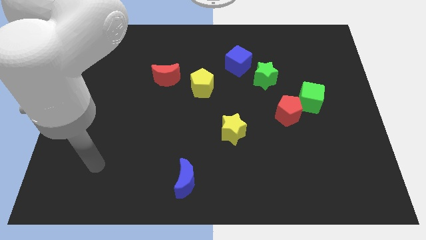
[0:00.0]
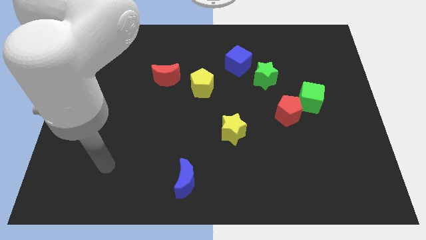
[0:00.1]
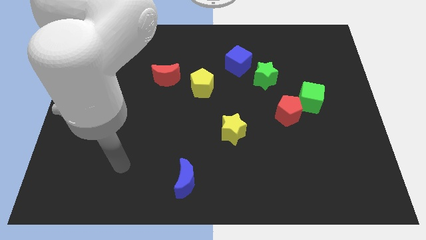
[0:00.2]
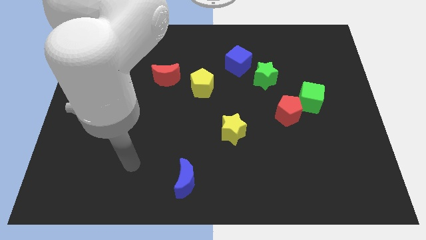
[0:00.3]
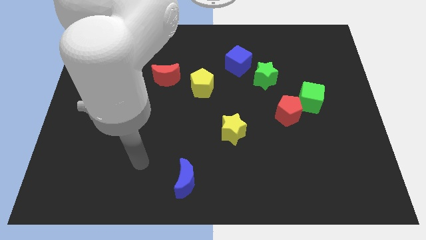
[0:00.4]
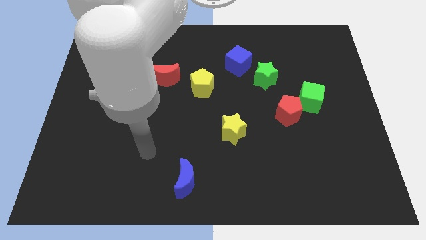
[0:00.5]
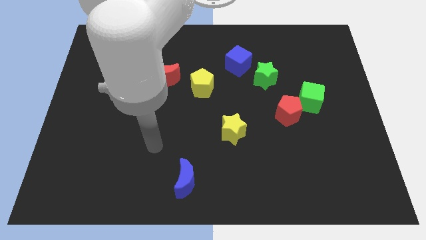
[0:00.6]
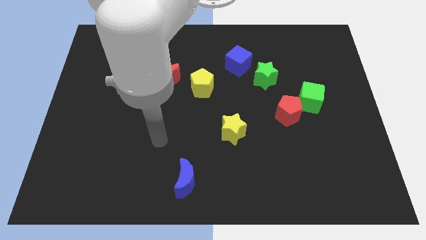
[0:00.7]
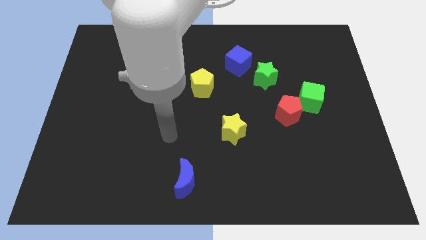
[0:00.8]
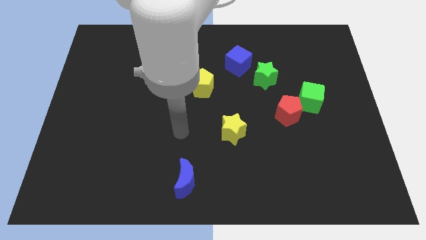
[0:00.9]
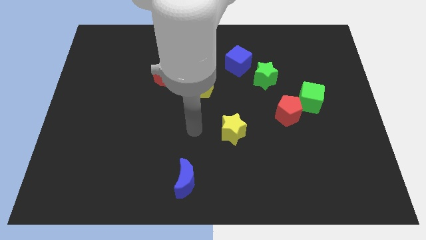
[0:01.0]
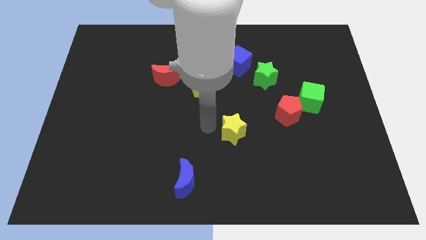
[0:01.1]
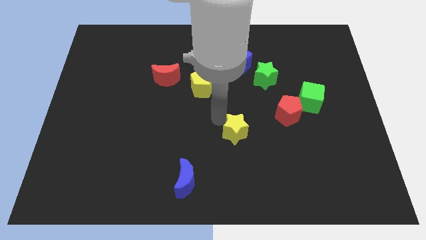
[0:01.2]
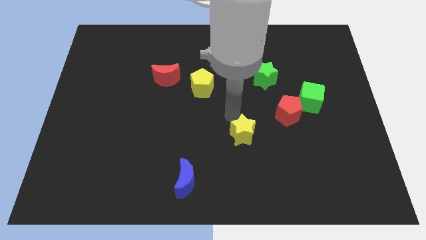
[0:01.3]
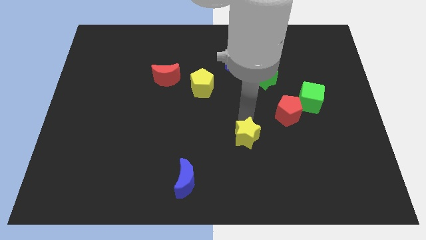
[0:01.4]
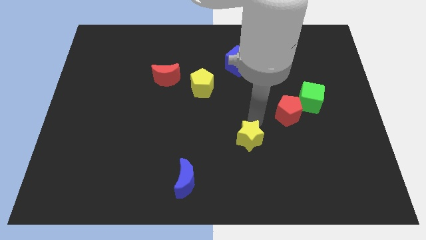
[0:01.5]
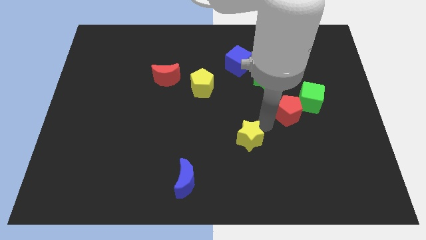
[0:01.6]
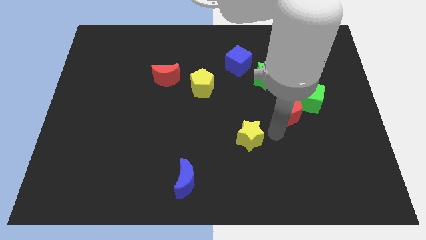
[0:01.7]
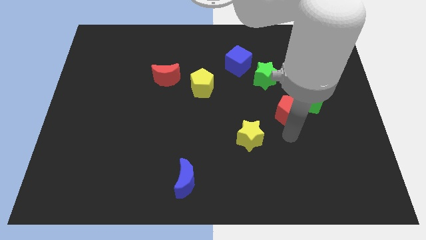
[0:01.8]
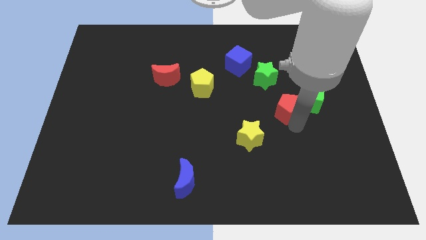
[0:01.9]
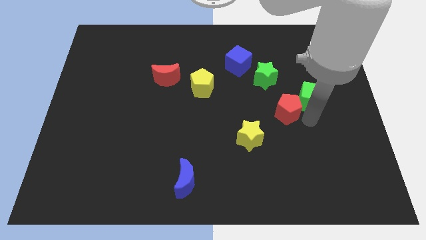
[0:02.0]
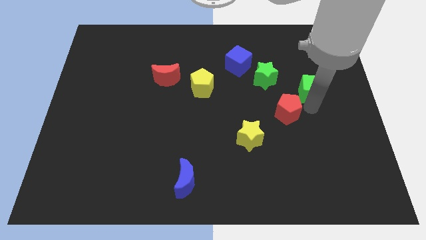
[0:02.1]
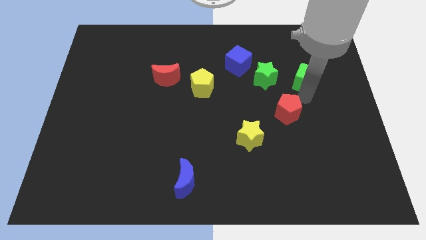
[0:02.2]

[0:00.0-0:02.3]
pull the red pentagon apart from the green cube

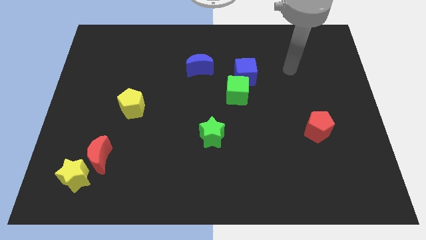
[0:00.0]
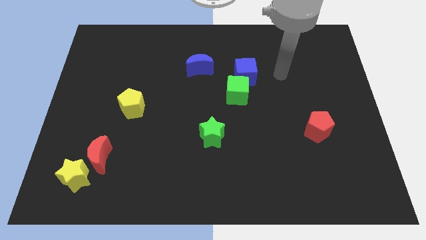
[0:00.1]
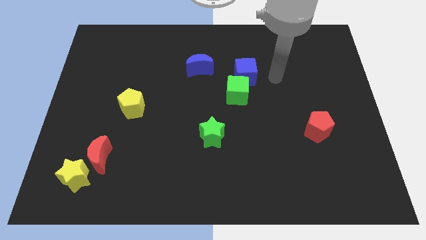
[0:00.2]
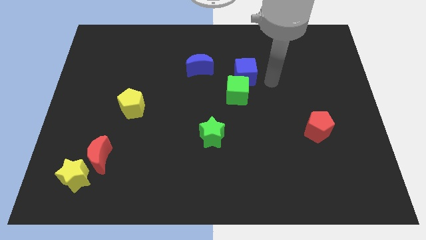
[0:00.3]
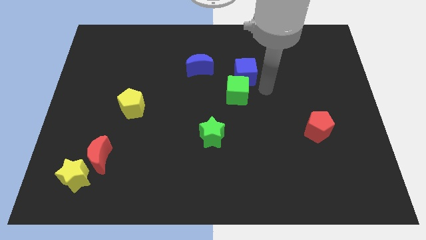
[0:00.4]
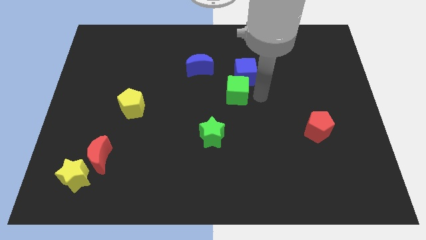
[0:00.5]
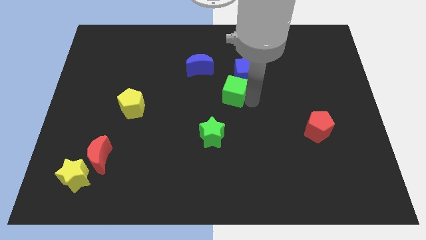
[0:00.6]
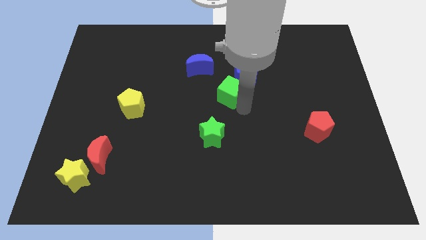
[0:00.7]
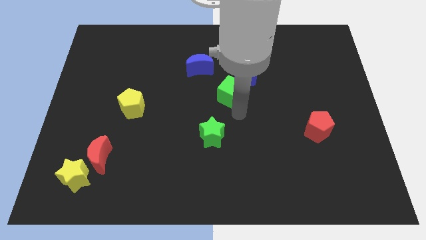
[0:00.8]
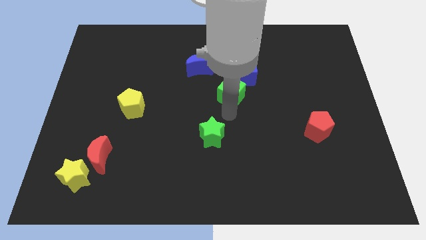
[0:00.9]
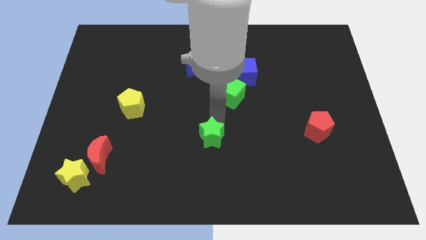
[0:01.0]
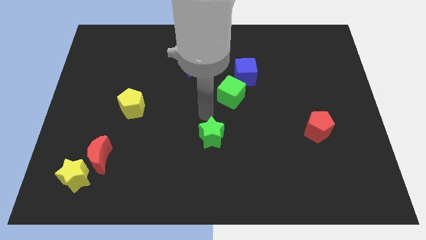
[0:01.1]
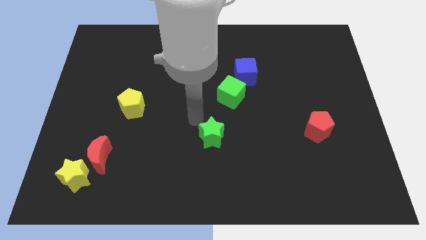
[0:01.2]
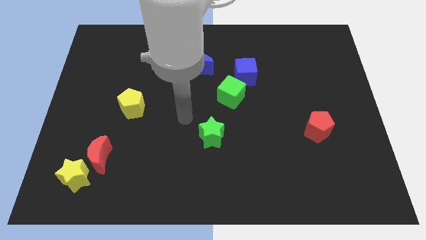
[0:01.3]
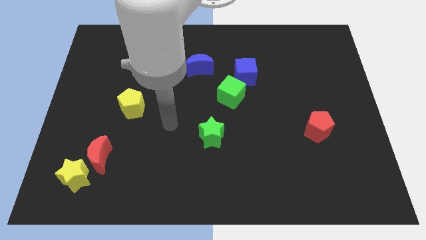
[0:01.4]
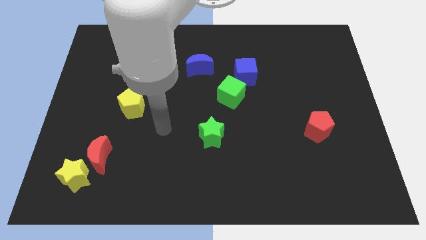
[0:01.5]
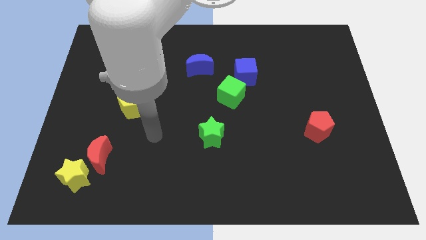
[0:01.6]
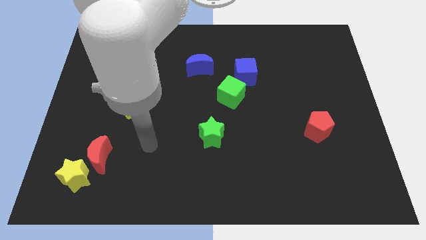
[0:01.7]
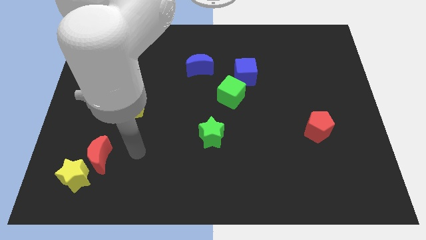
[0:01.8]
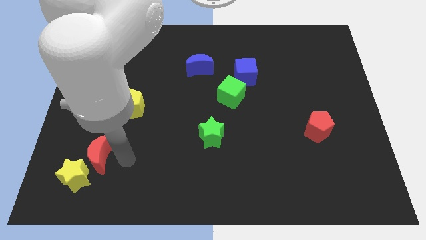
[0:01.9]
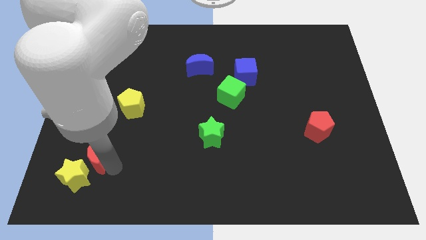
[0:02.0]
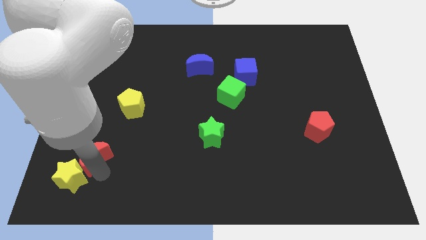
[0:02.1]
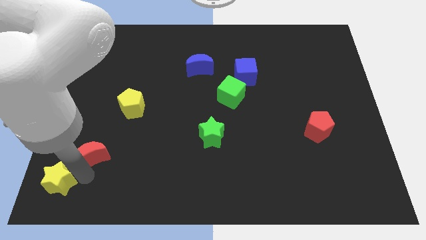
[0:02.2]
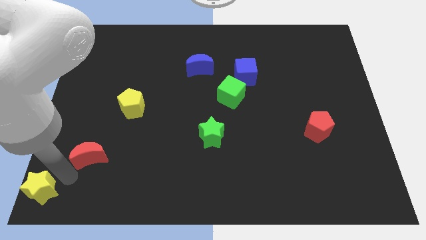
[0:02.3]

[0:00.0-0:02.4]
move the red moon away from the yellow star

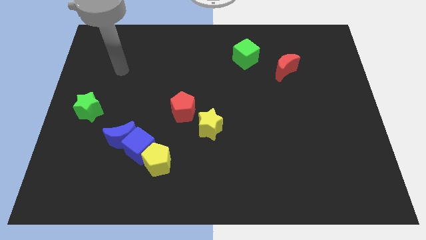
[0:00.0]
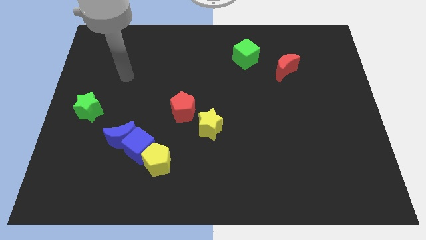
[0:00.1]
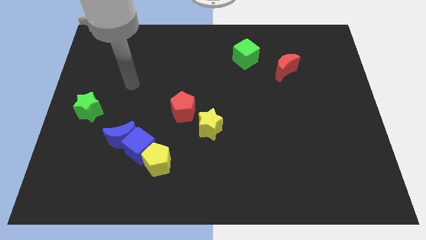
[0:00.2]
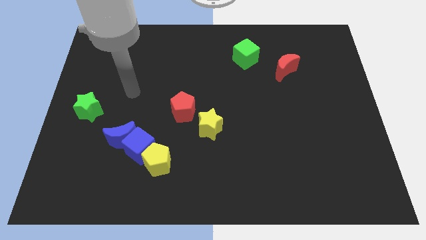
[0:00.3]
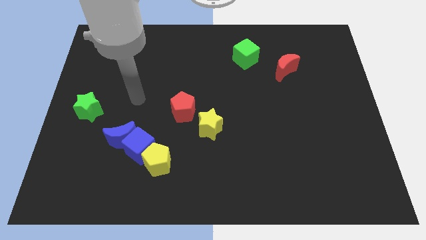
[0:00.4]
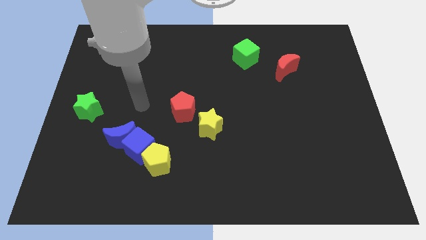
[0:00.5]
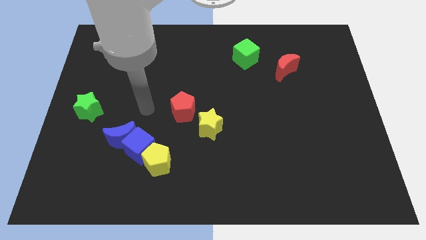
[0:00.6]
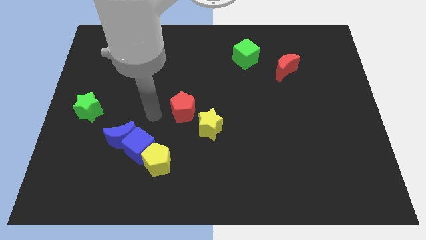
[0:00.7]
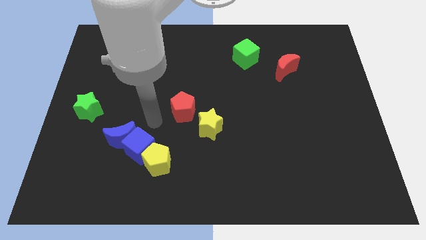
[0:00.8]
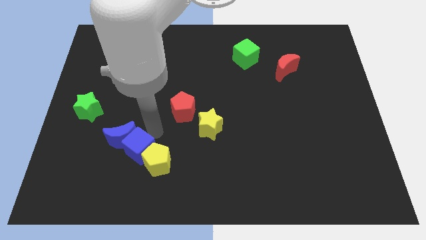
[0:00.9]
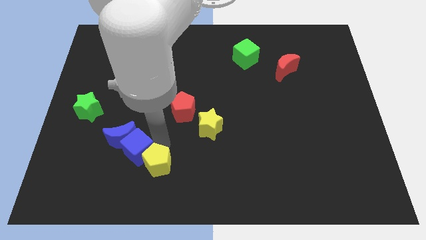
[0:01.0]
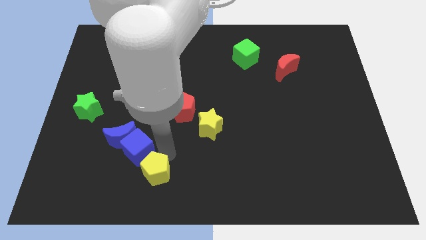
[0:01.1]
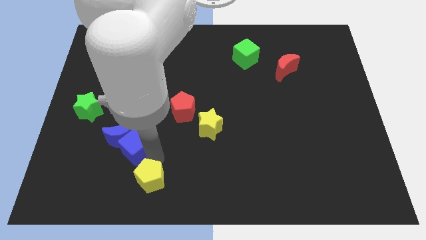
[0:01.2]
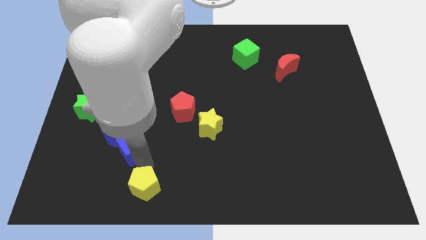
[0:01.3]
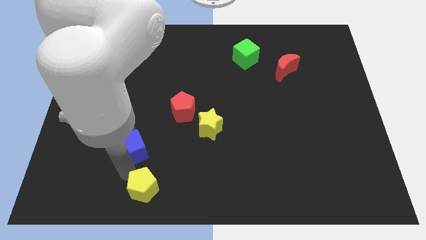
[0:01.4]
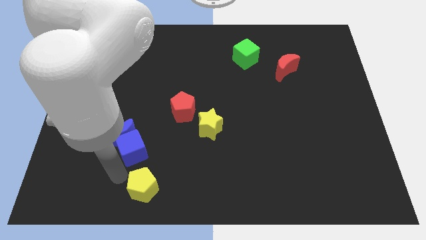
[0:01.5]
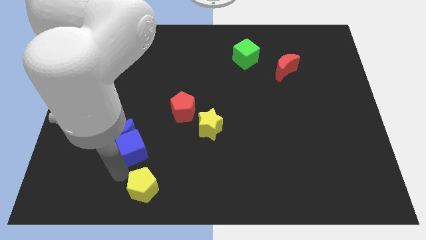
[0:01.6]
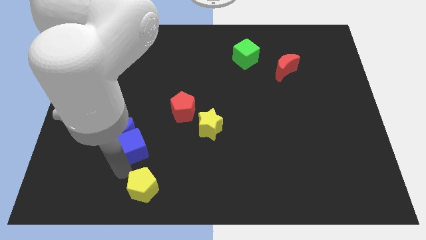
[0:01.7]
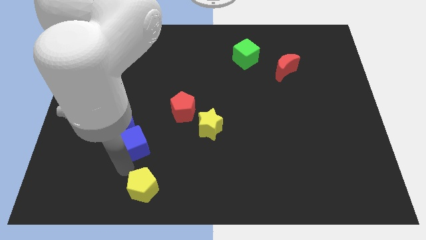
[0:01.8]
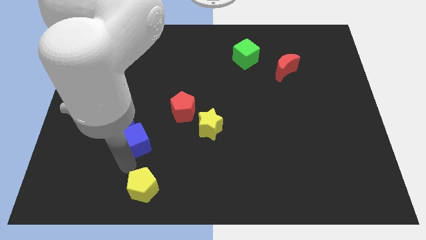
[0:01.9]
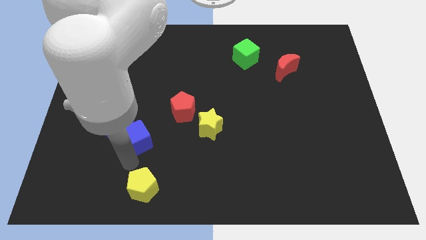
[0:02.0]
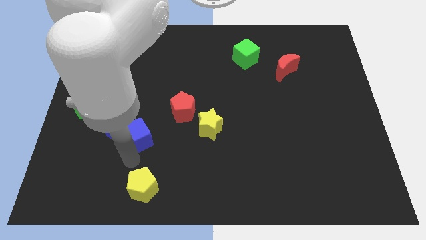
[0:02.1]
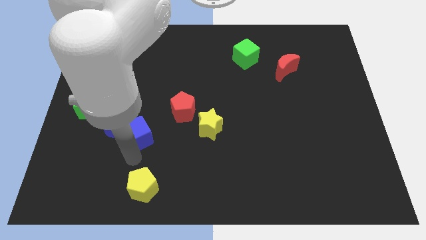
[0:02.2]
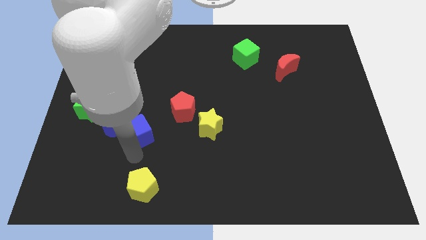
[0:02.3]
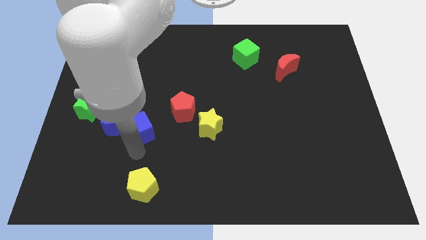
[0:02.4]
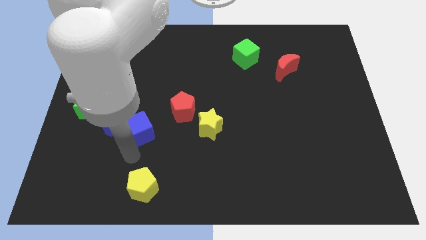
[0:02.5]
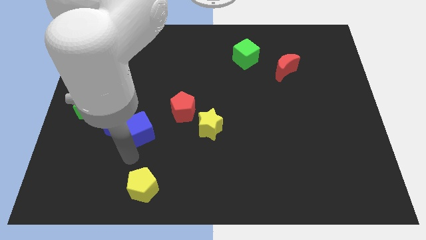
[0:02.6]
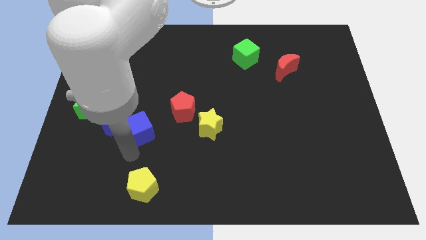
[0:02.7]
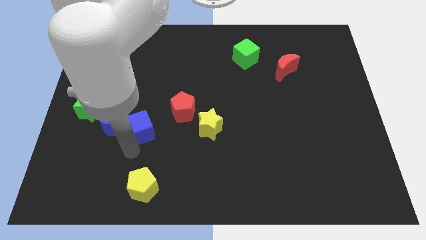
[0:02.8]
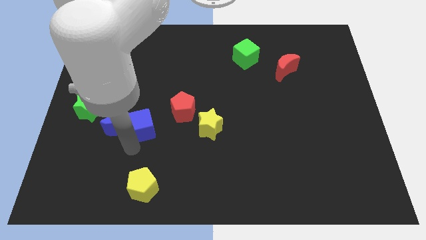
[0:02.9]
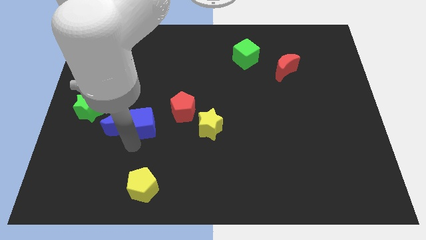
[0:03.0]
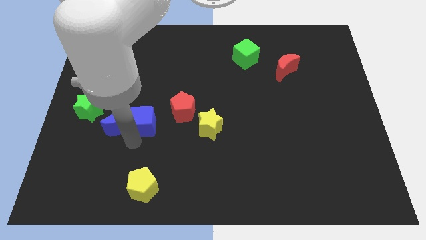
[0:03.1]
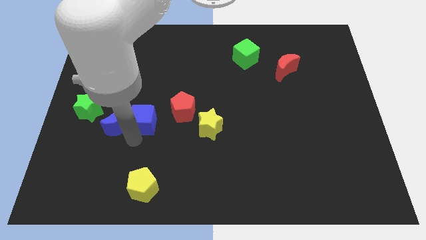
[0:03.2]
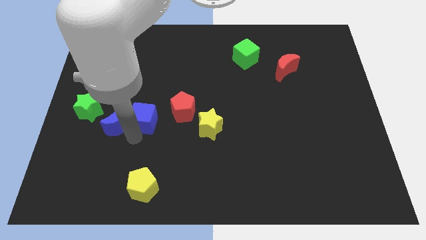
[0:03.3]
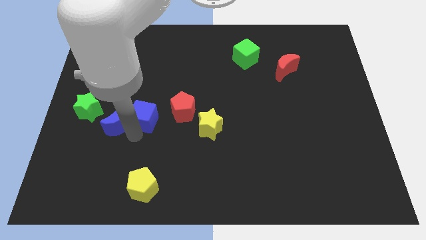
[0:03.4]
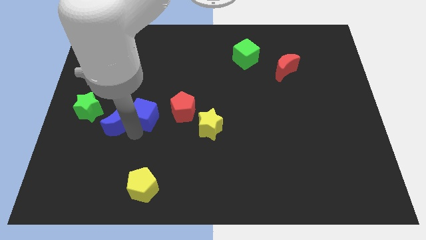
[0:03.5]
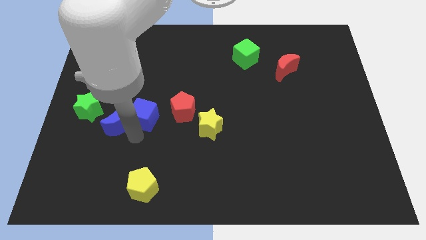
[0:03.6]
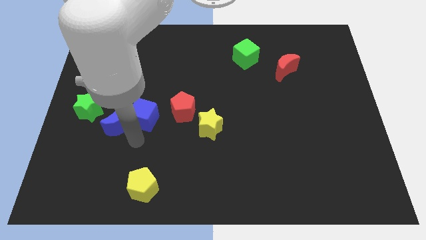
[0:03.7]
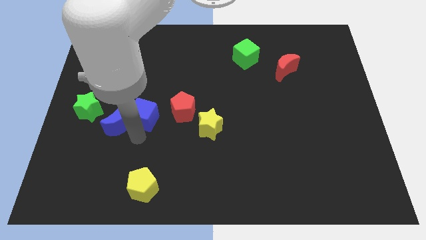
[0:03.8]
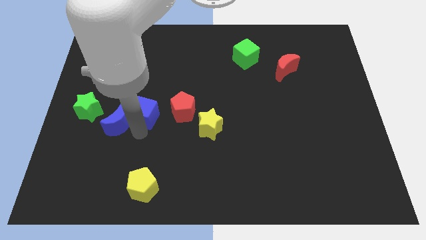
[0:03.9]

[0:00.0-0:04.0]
pull the blue cube apart from the blue moon and yellow pentagon

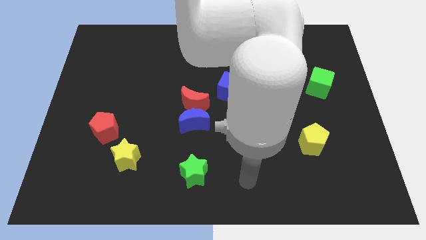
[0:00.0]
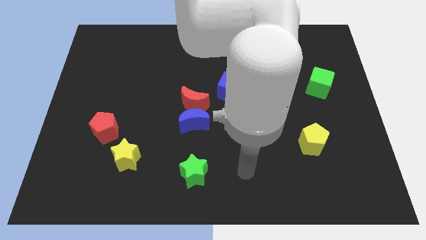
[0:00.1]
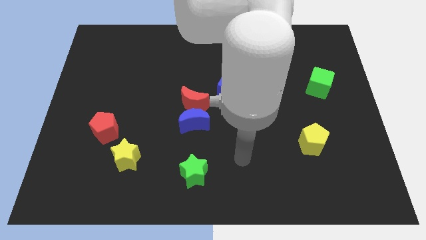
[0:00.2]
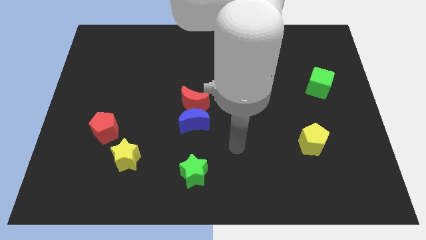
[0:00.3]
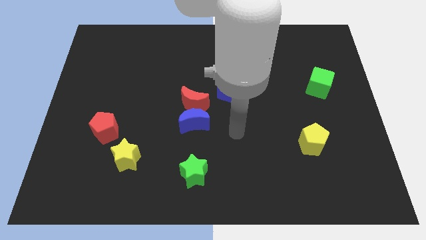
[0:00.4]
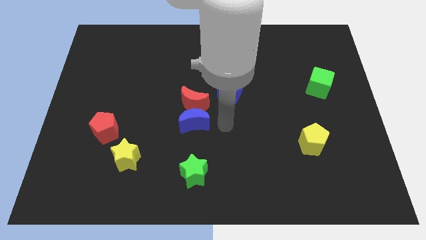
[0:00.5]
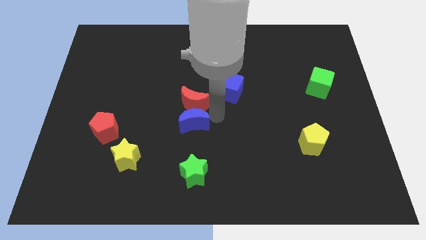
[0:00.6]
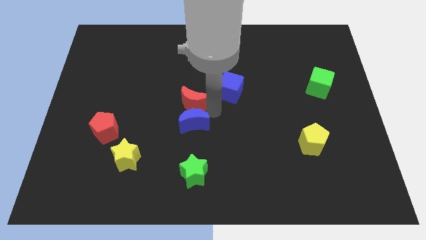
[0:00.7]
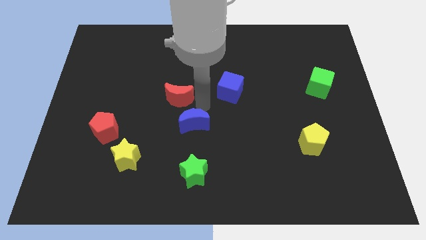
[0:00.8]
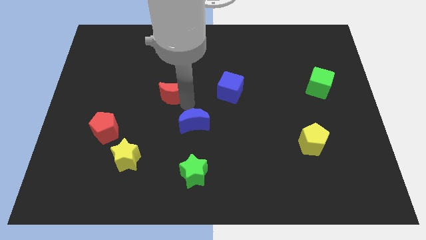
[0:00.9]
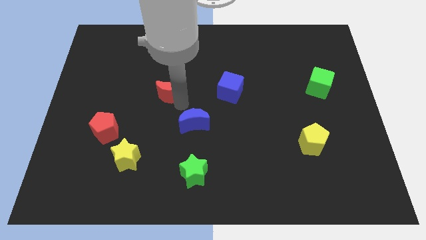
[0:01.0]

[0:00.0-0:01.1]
separate the blue moon from the red moon
